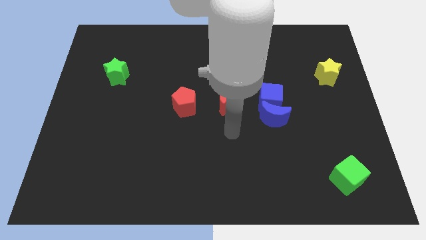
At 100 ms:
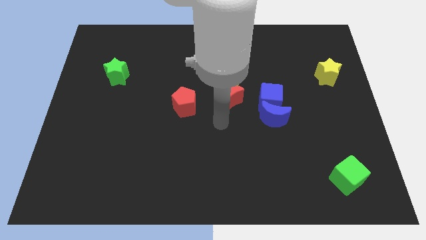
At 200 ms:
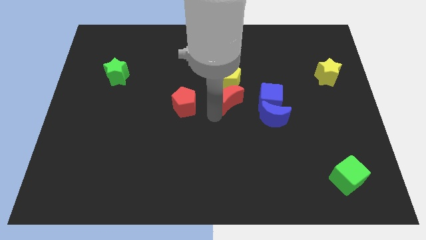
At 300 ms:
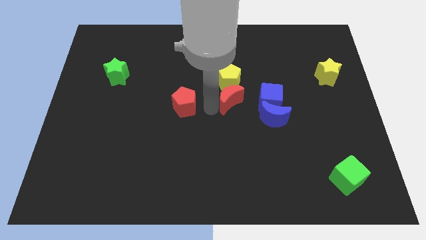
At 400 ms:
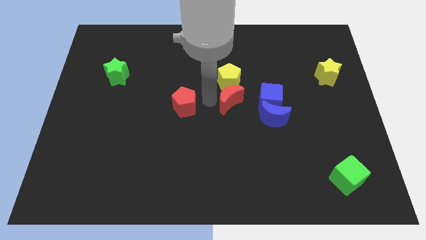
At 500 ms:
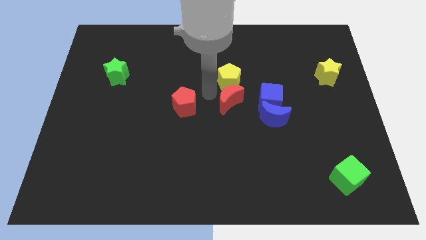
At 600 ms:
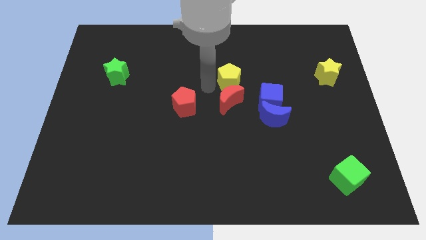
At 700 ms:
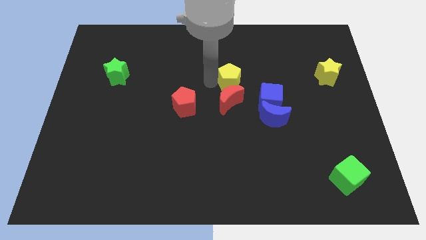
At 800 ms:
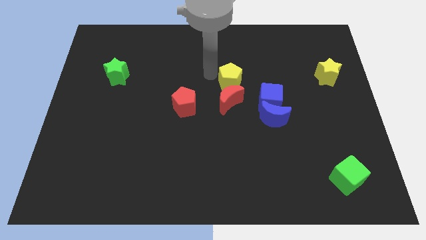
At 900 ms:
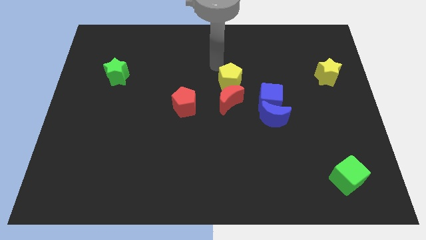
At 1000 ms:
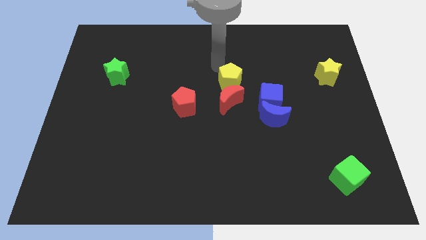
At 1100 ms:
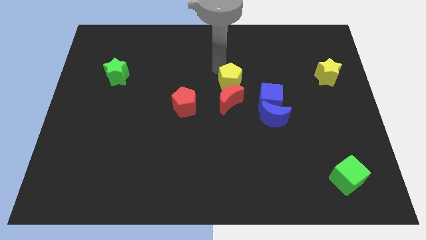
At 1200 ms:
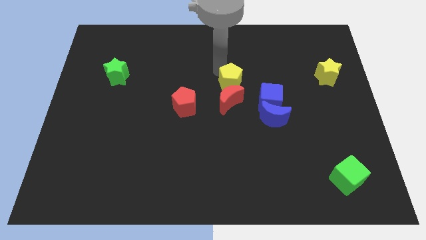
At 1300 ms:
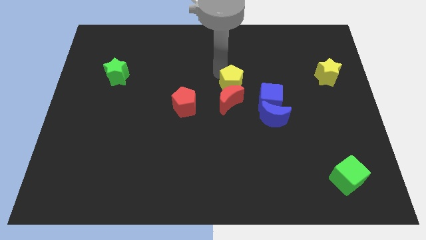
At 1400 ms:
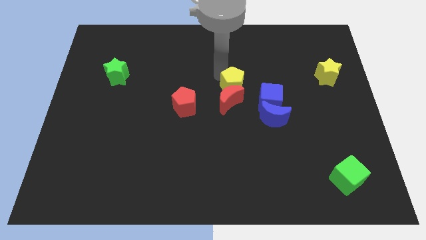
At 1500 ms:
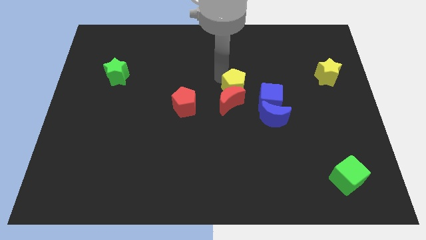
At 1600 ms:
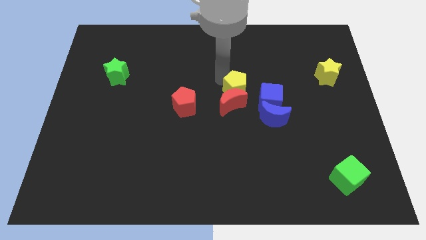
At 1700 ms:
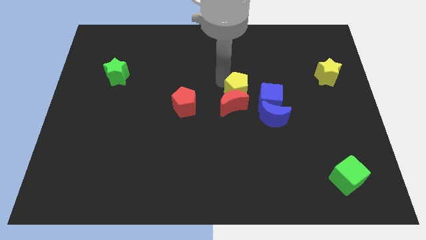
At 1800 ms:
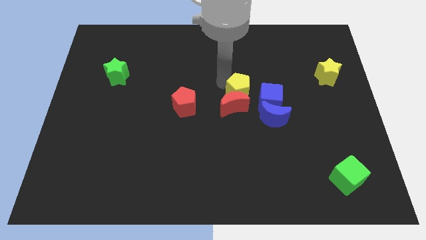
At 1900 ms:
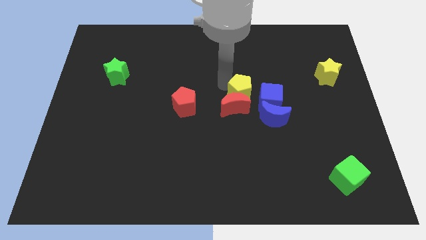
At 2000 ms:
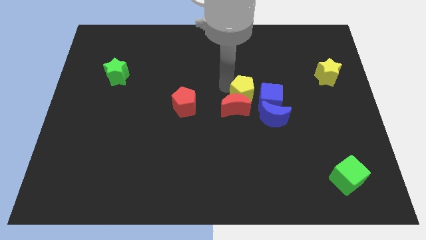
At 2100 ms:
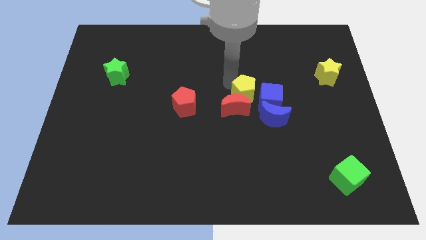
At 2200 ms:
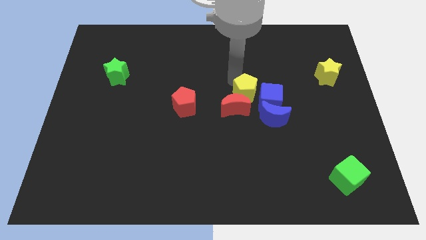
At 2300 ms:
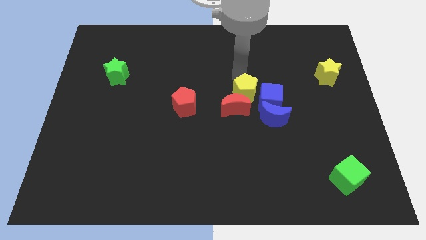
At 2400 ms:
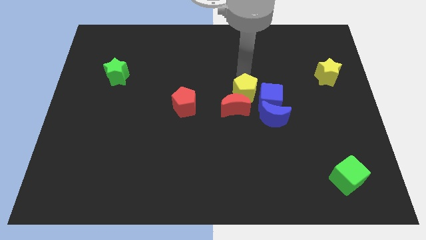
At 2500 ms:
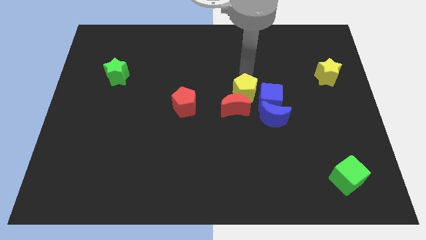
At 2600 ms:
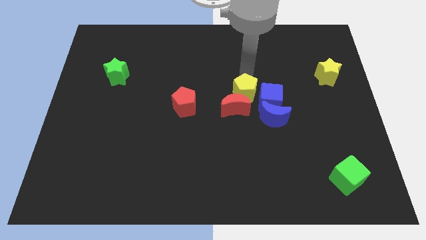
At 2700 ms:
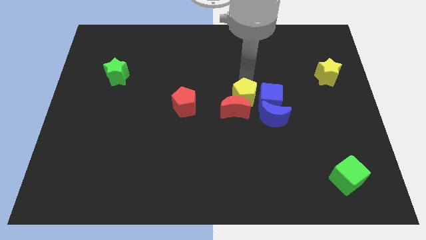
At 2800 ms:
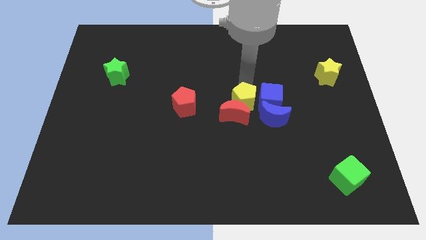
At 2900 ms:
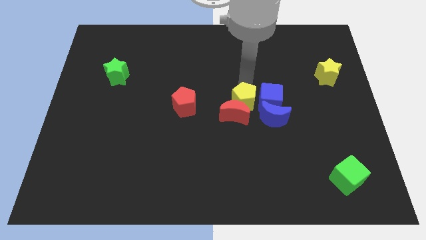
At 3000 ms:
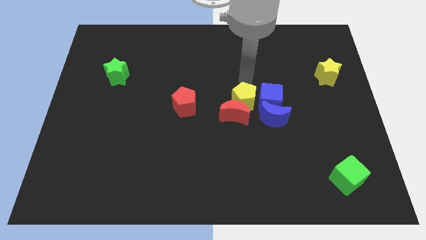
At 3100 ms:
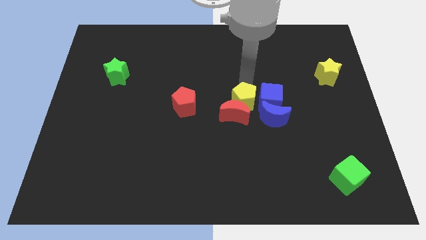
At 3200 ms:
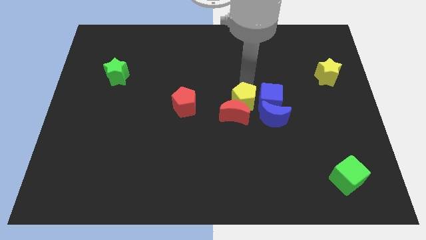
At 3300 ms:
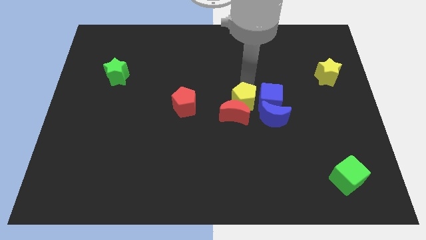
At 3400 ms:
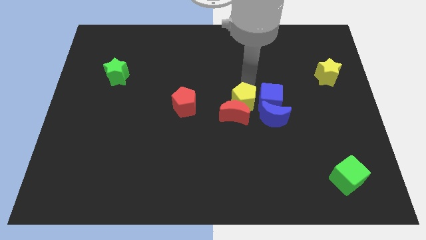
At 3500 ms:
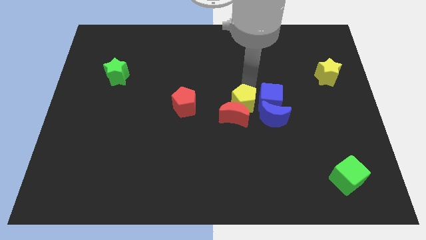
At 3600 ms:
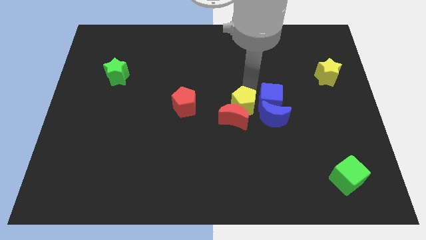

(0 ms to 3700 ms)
slide the yellow pentagon a bit downwards

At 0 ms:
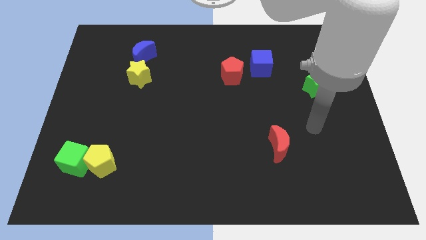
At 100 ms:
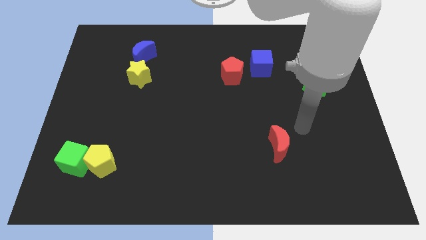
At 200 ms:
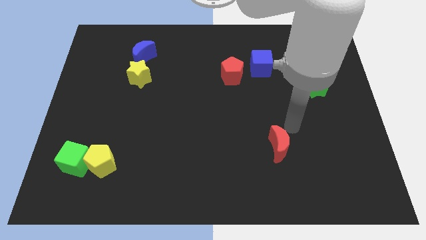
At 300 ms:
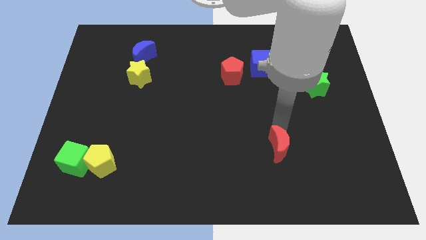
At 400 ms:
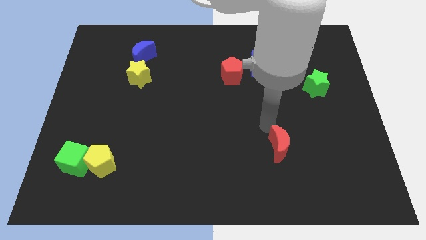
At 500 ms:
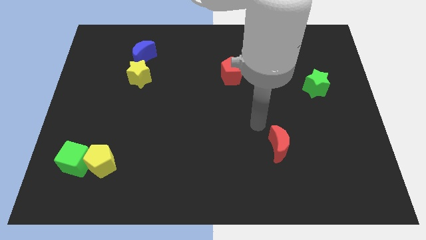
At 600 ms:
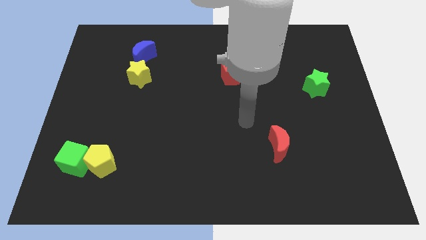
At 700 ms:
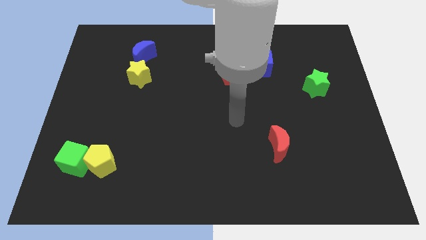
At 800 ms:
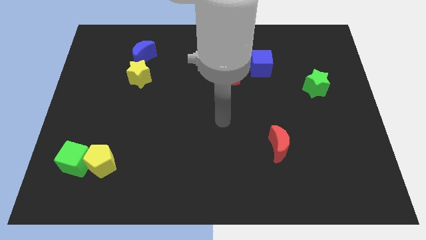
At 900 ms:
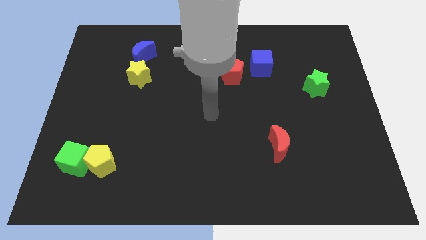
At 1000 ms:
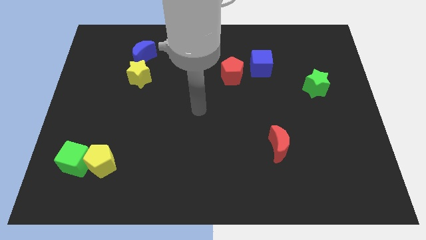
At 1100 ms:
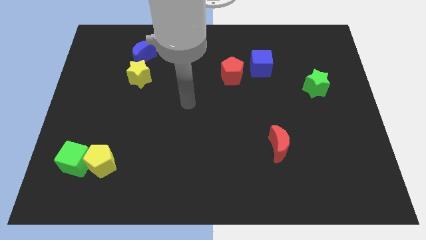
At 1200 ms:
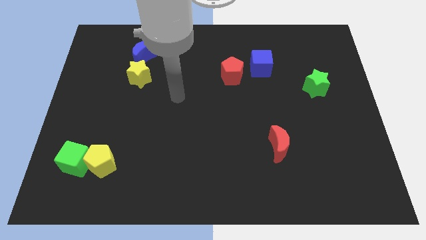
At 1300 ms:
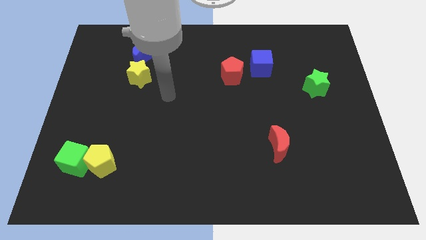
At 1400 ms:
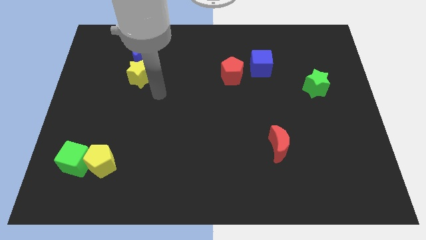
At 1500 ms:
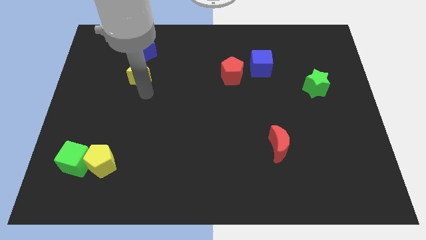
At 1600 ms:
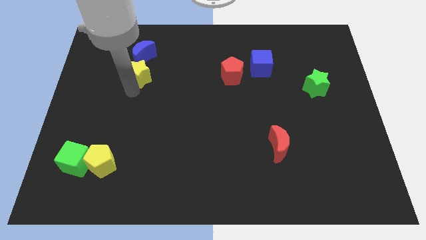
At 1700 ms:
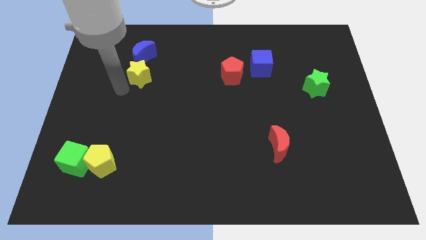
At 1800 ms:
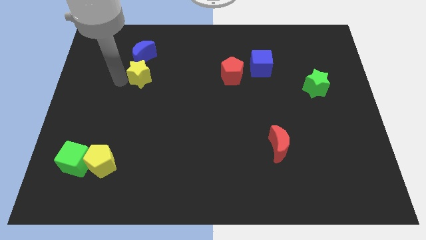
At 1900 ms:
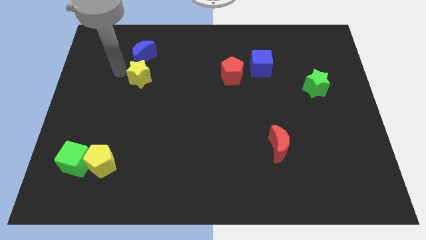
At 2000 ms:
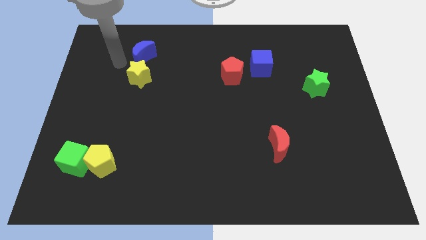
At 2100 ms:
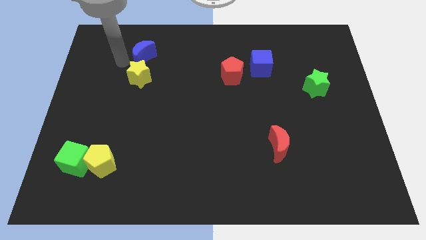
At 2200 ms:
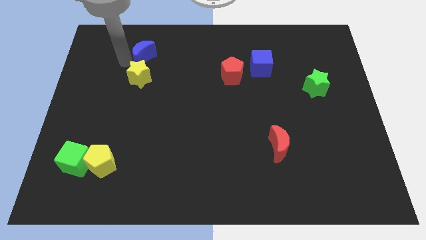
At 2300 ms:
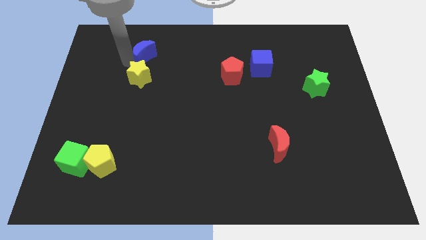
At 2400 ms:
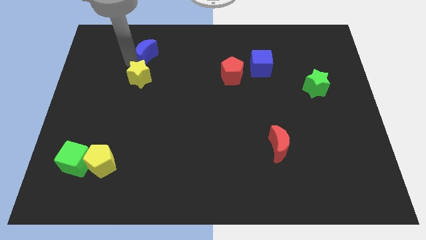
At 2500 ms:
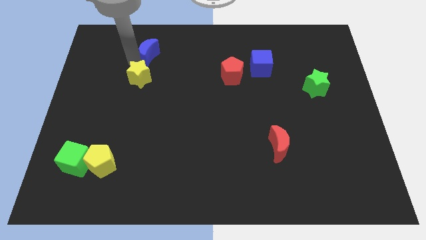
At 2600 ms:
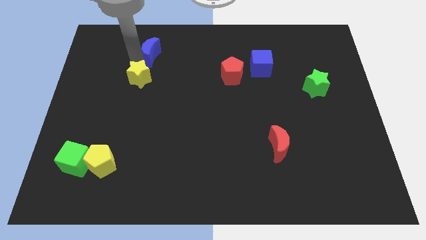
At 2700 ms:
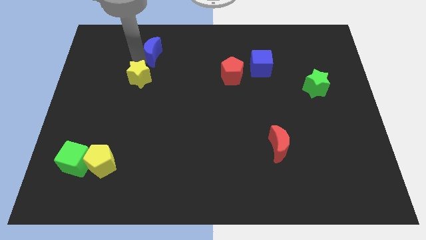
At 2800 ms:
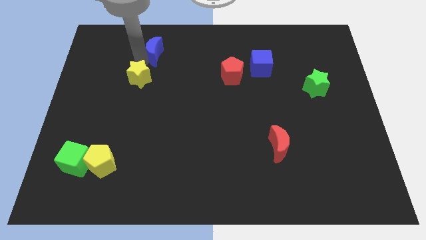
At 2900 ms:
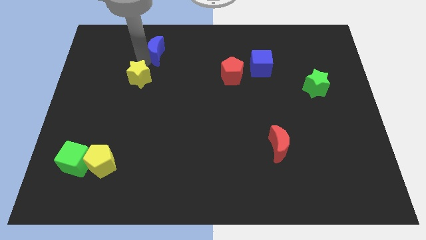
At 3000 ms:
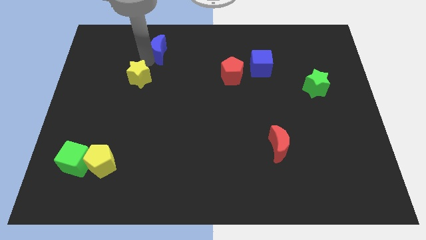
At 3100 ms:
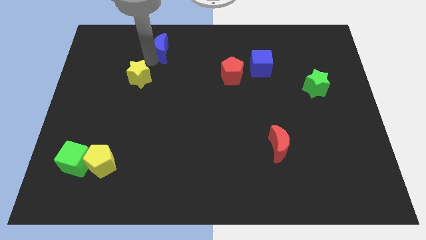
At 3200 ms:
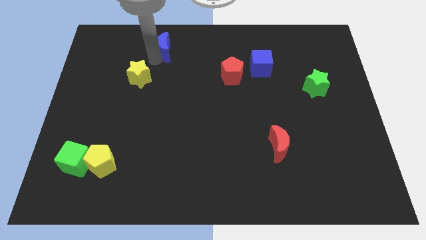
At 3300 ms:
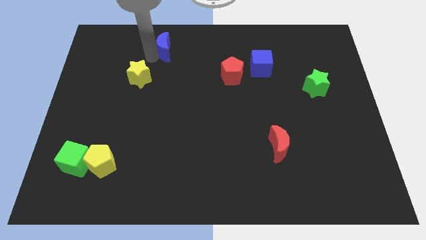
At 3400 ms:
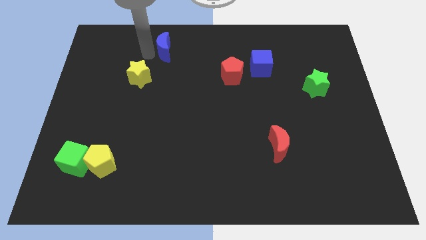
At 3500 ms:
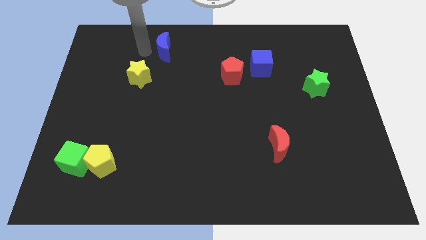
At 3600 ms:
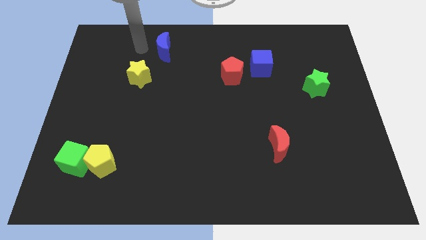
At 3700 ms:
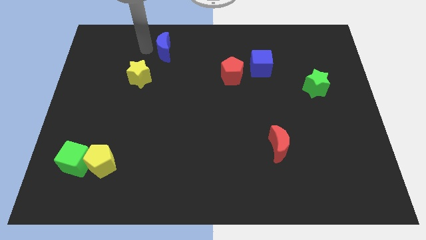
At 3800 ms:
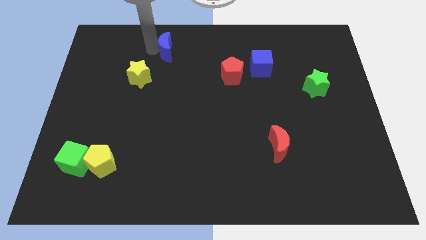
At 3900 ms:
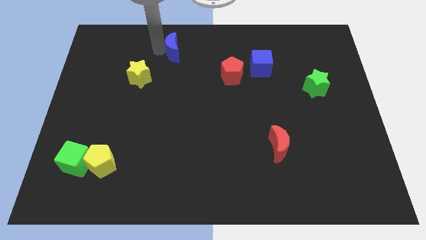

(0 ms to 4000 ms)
move the blue moon right a bit
